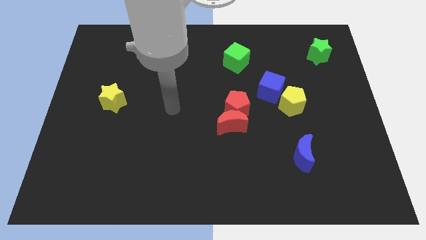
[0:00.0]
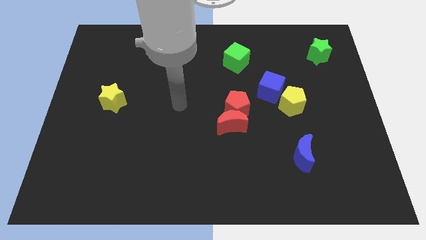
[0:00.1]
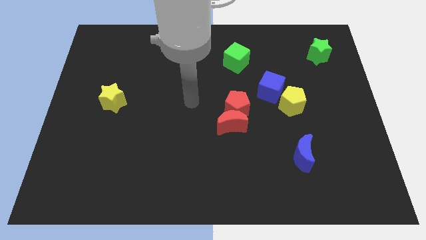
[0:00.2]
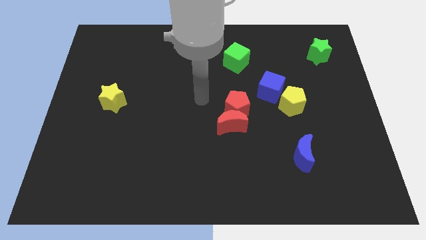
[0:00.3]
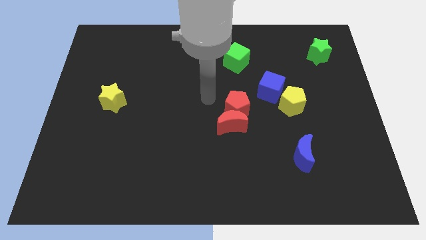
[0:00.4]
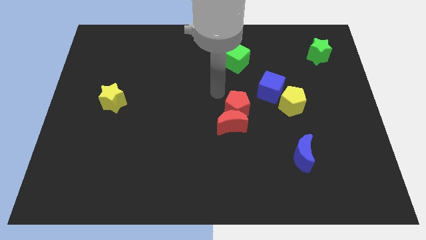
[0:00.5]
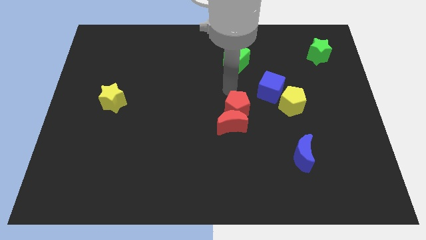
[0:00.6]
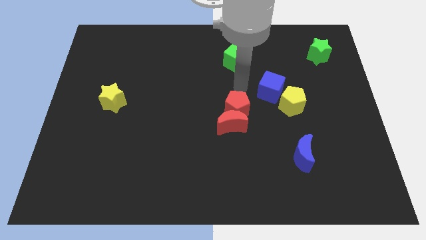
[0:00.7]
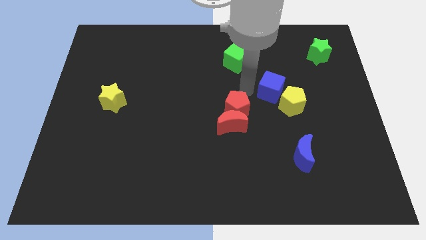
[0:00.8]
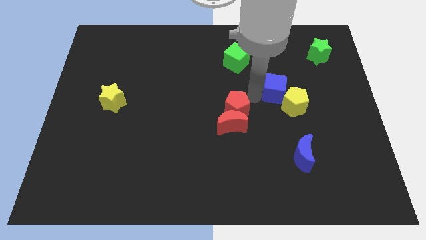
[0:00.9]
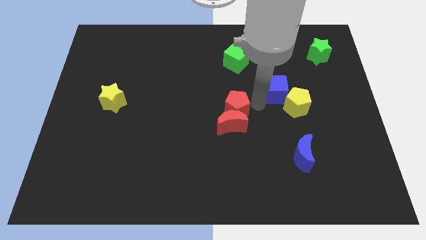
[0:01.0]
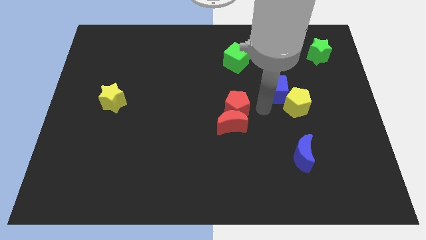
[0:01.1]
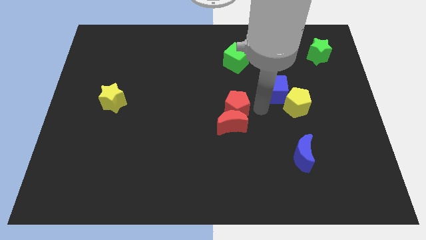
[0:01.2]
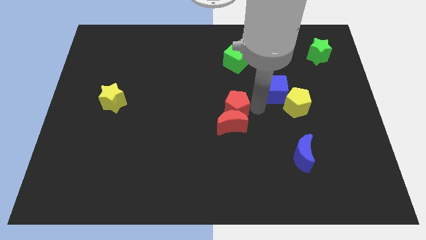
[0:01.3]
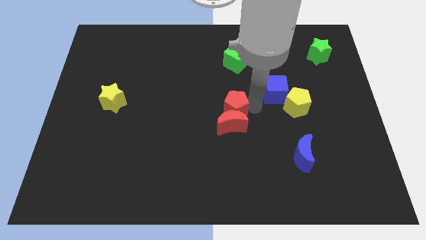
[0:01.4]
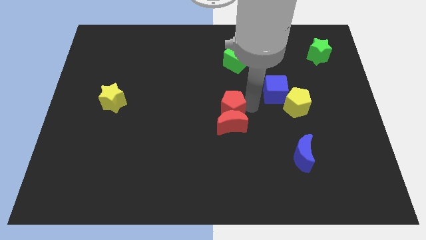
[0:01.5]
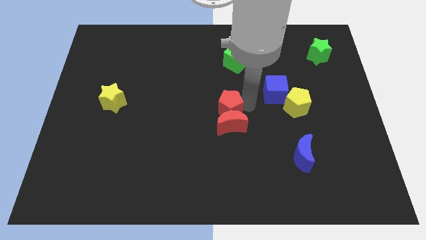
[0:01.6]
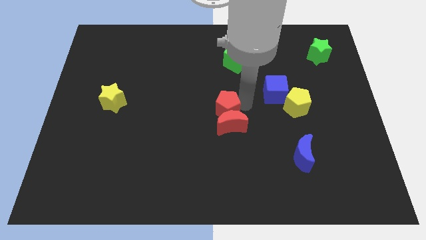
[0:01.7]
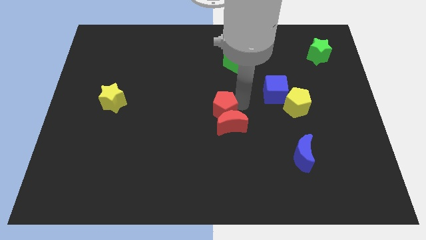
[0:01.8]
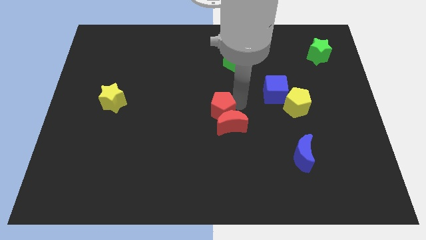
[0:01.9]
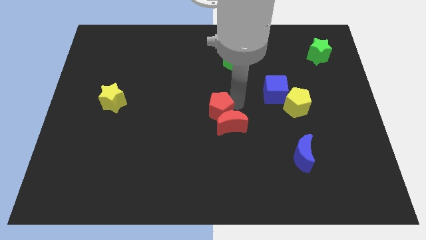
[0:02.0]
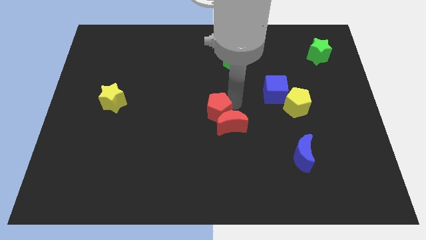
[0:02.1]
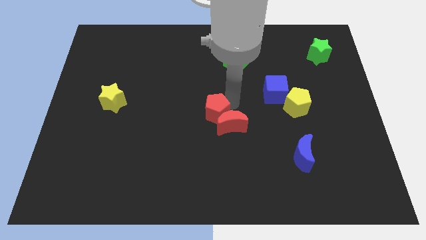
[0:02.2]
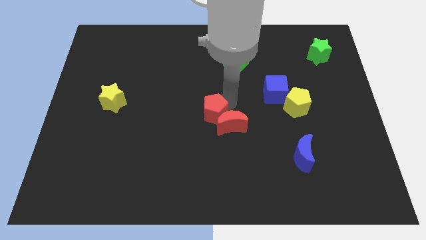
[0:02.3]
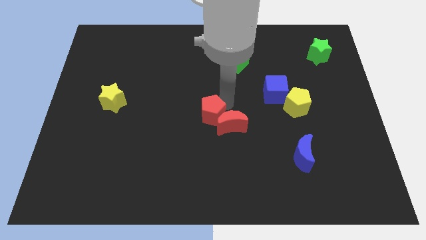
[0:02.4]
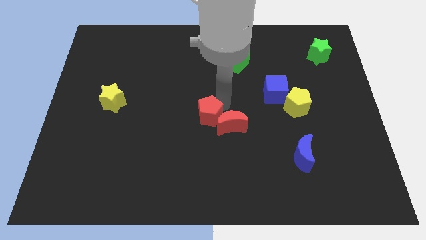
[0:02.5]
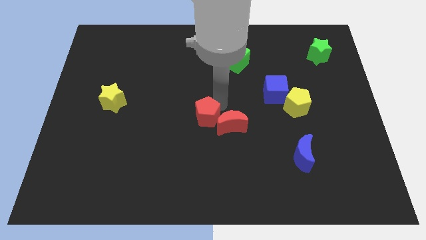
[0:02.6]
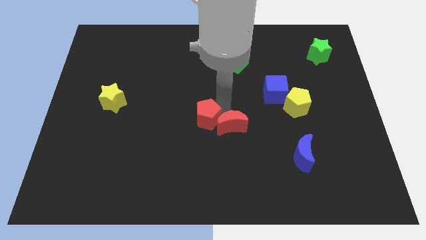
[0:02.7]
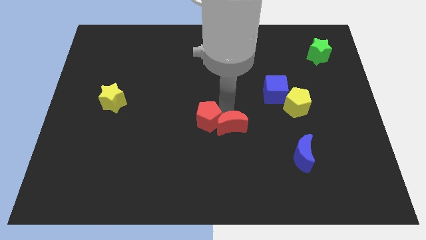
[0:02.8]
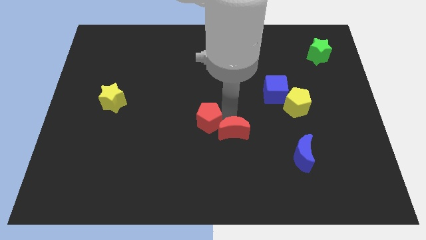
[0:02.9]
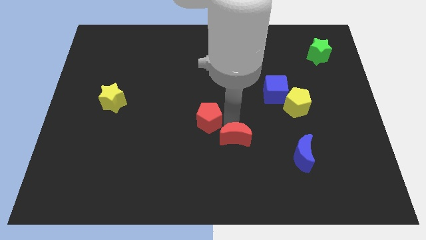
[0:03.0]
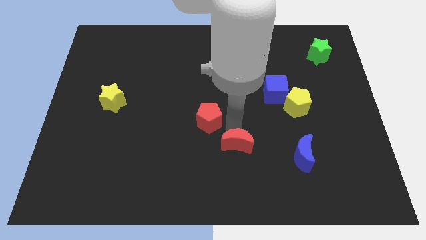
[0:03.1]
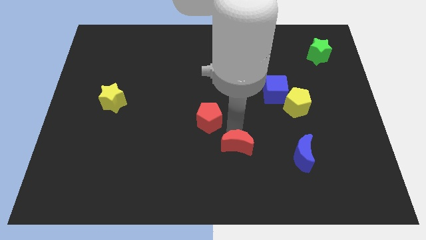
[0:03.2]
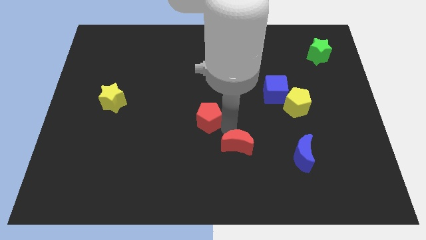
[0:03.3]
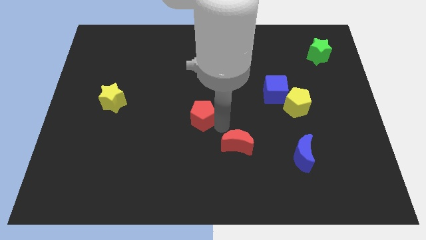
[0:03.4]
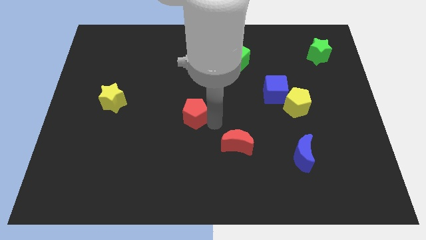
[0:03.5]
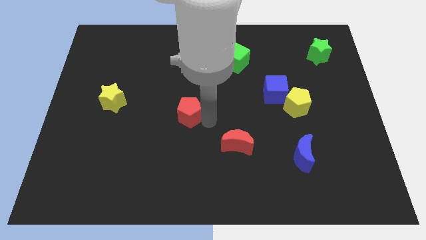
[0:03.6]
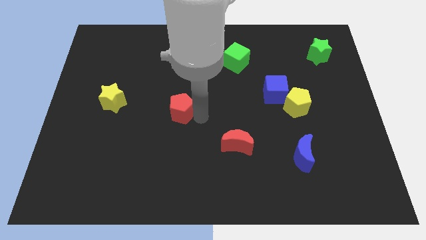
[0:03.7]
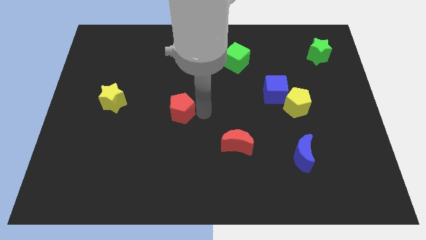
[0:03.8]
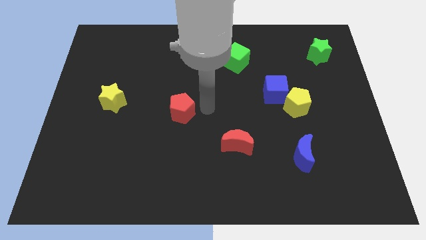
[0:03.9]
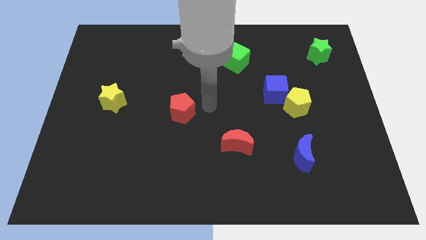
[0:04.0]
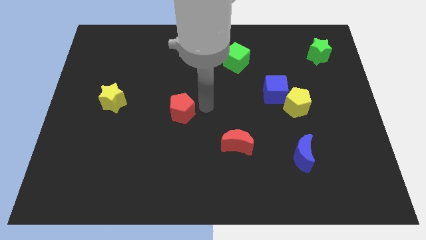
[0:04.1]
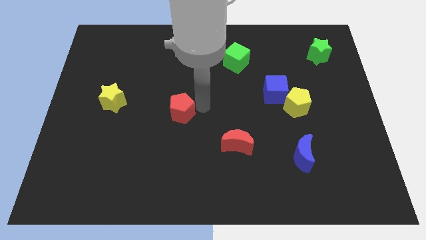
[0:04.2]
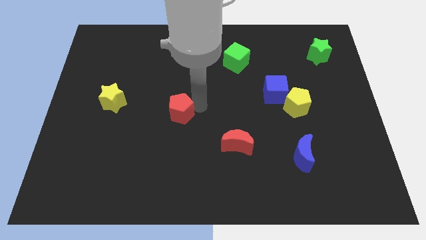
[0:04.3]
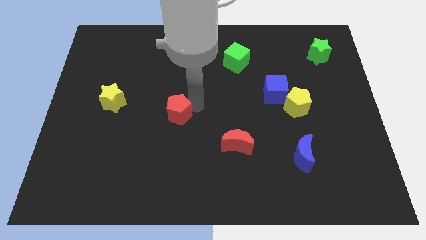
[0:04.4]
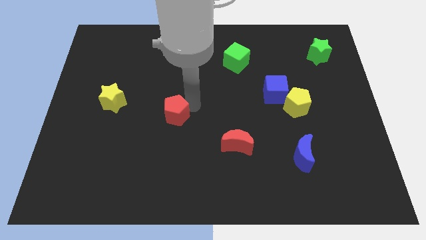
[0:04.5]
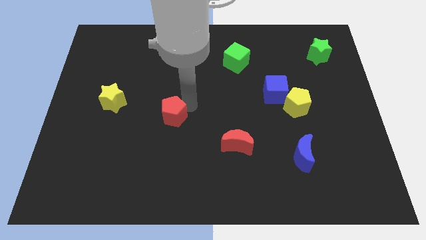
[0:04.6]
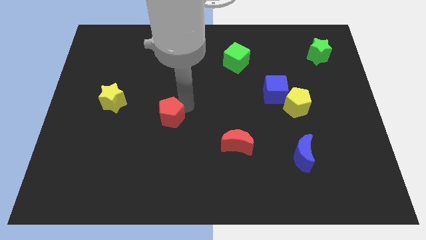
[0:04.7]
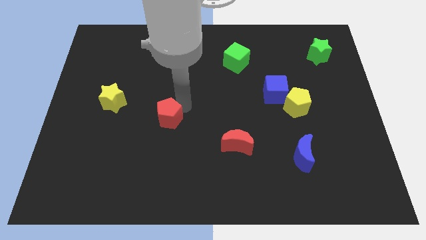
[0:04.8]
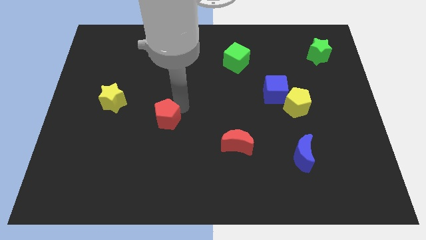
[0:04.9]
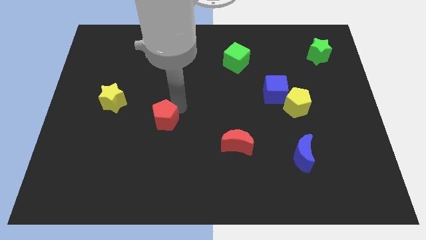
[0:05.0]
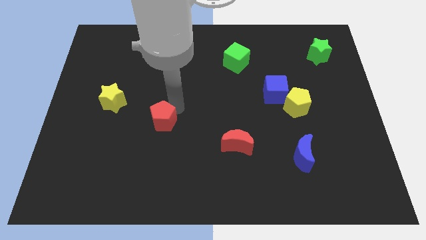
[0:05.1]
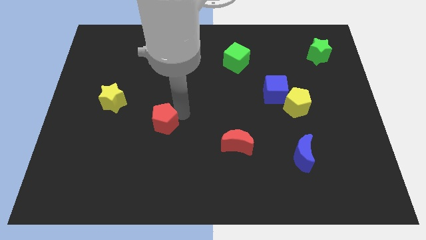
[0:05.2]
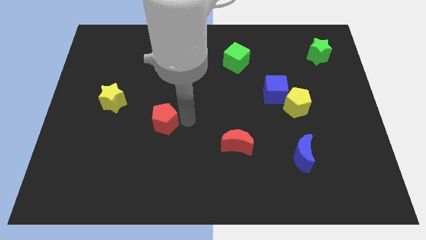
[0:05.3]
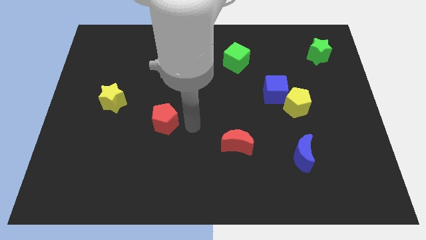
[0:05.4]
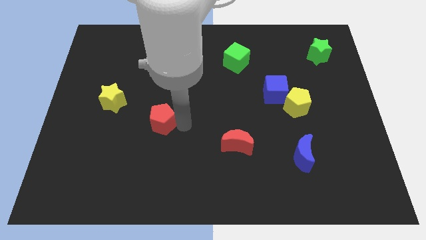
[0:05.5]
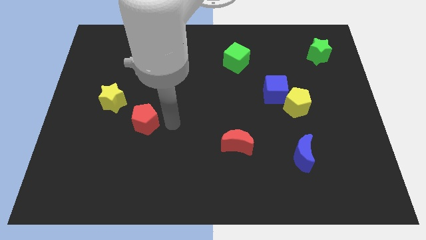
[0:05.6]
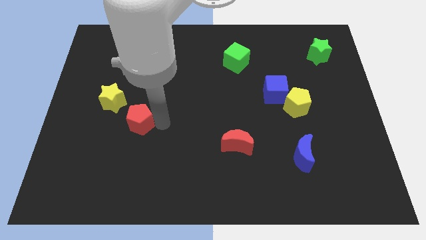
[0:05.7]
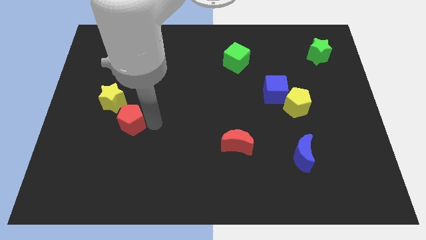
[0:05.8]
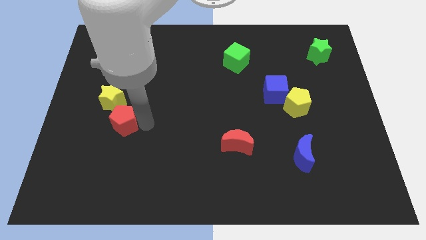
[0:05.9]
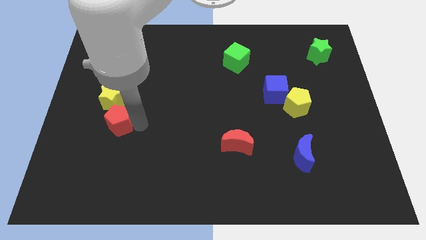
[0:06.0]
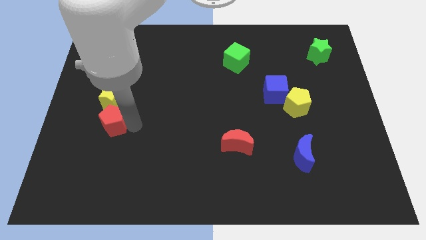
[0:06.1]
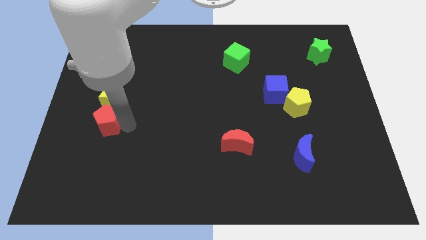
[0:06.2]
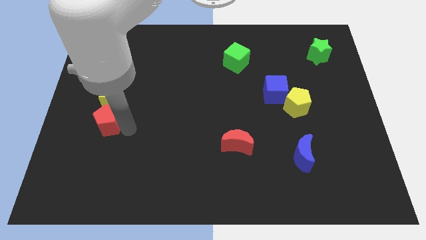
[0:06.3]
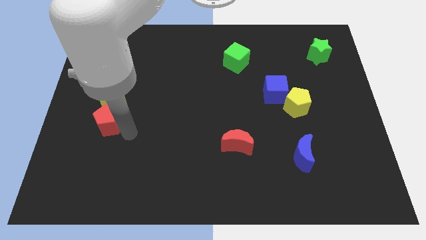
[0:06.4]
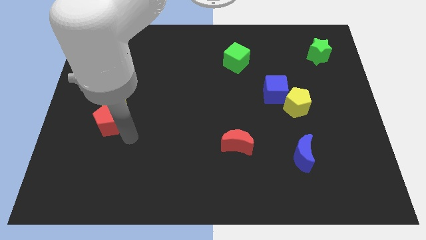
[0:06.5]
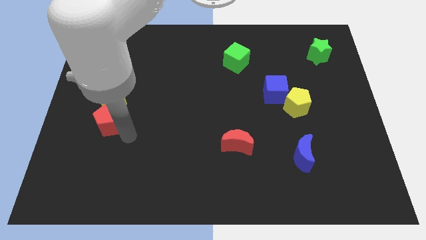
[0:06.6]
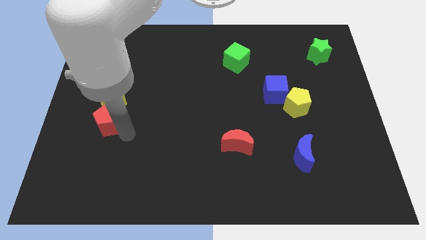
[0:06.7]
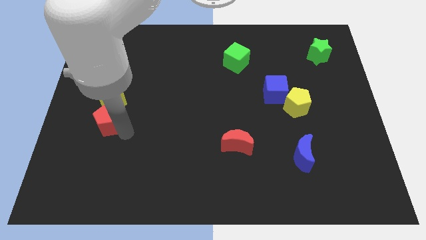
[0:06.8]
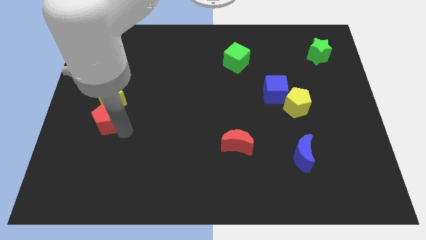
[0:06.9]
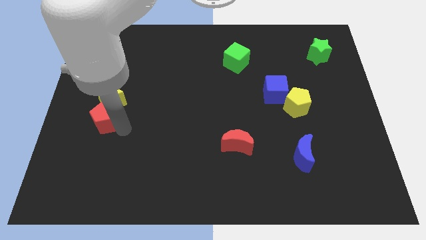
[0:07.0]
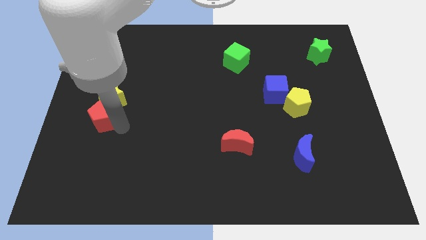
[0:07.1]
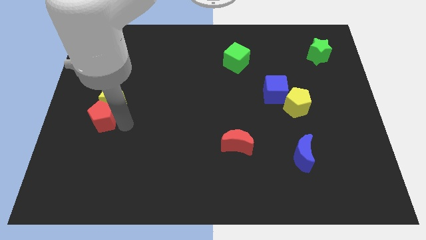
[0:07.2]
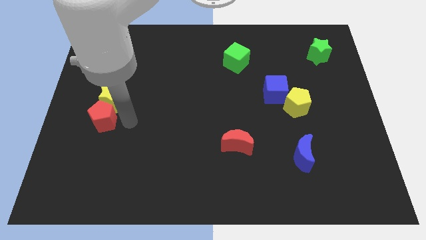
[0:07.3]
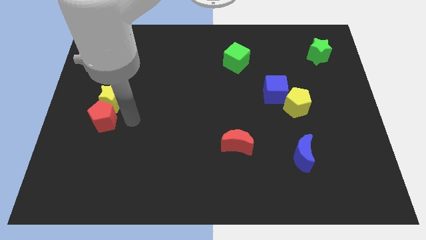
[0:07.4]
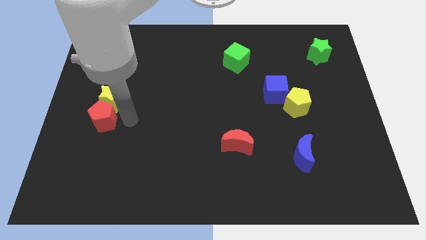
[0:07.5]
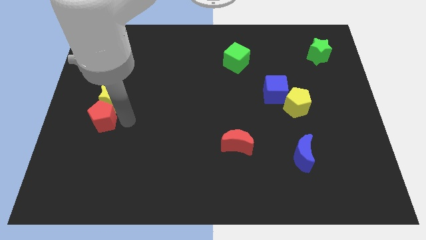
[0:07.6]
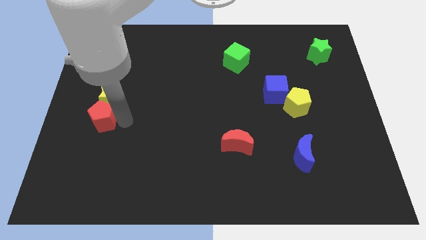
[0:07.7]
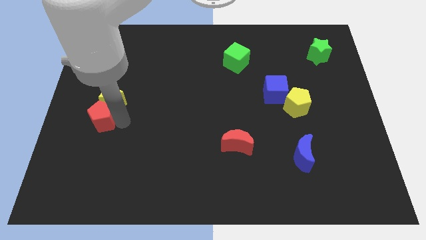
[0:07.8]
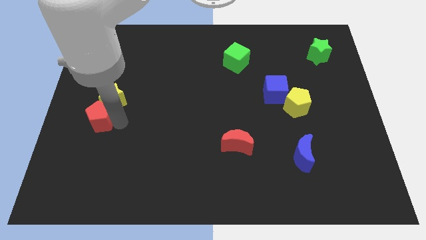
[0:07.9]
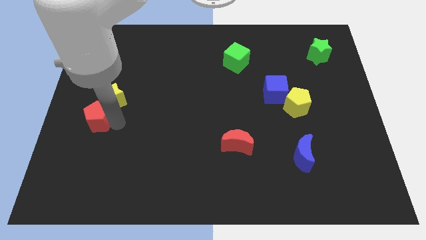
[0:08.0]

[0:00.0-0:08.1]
move the red pentagon to the center left
